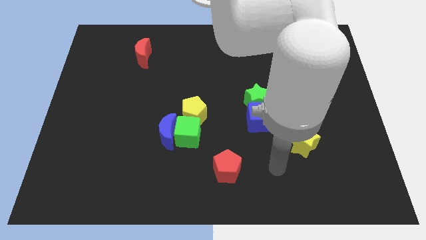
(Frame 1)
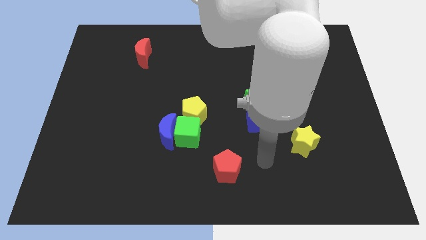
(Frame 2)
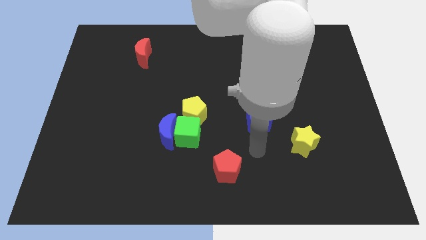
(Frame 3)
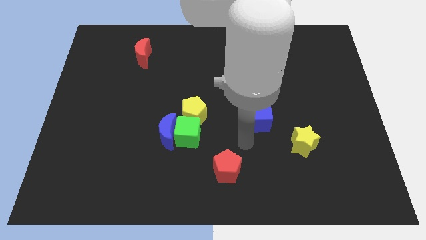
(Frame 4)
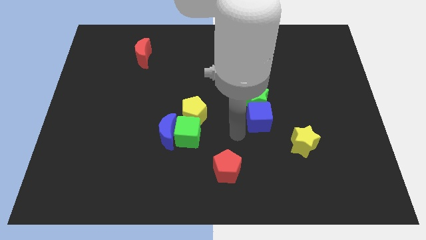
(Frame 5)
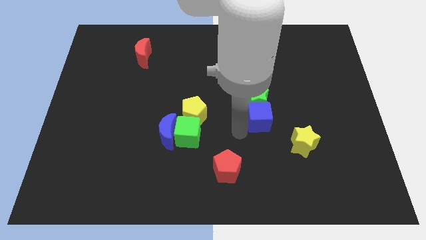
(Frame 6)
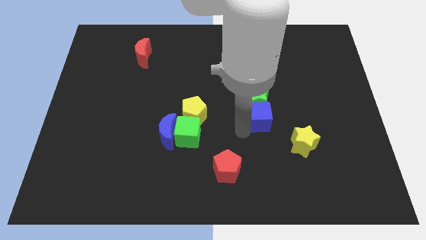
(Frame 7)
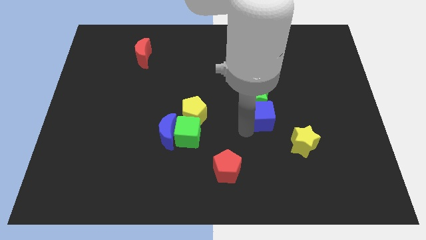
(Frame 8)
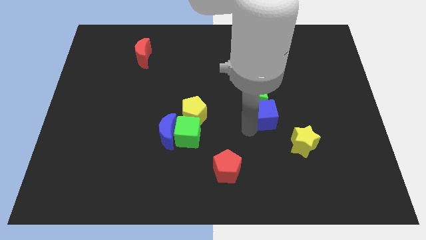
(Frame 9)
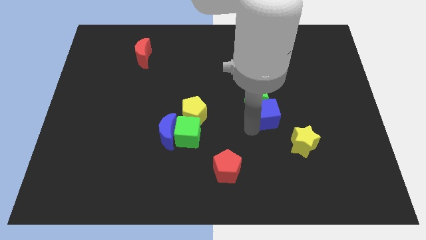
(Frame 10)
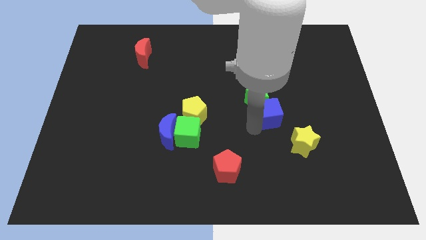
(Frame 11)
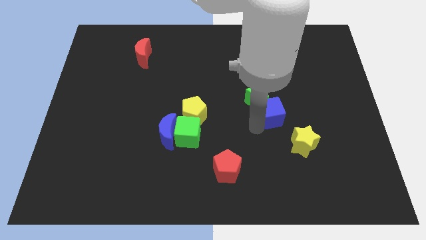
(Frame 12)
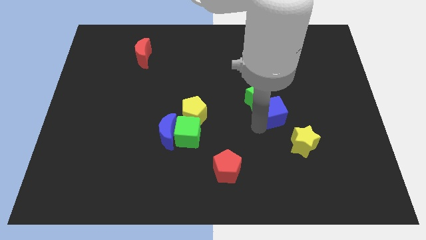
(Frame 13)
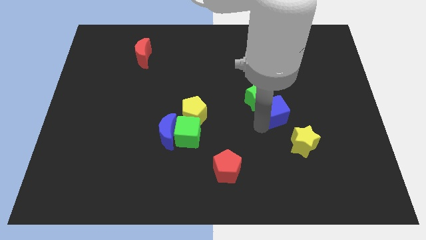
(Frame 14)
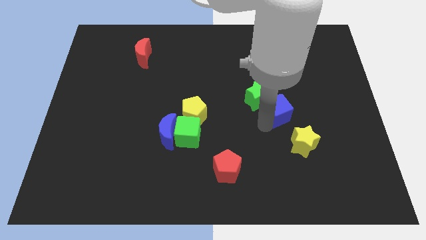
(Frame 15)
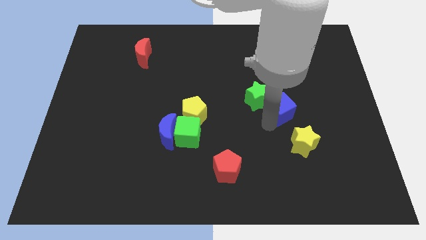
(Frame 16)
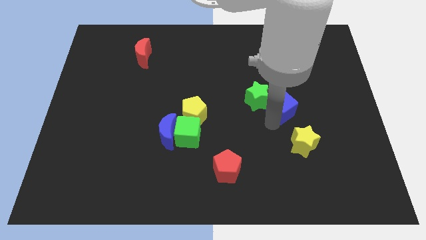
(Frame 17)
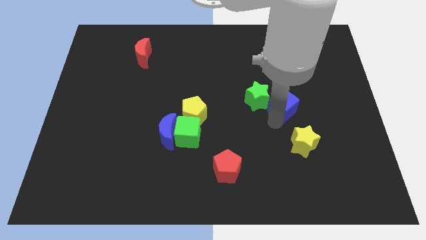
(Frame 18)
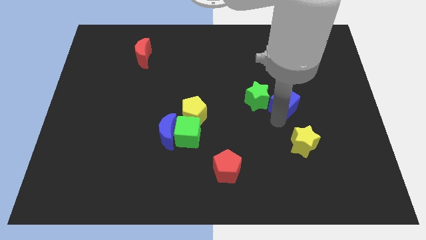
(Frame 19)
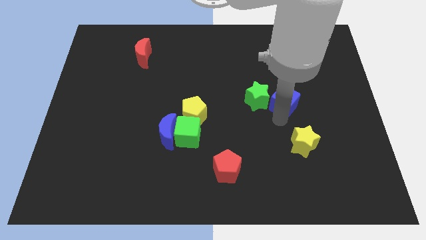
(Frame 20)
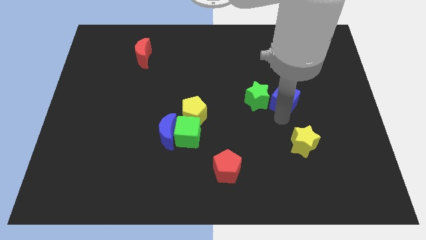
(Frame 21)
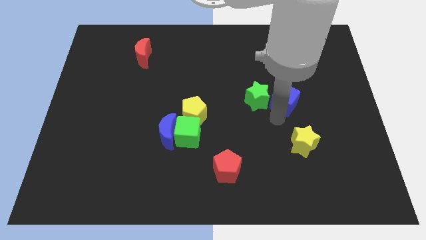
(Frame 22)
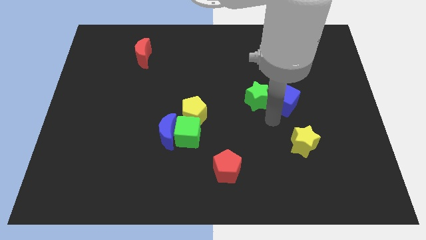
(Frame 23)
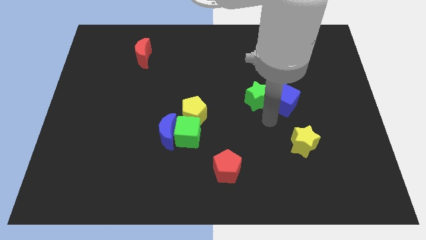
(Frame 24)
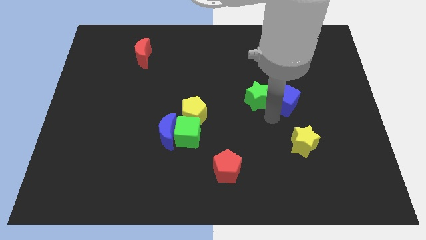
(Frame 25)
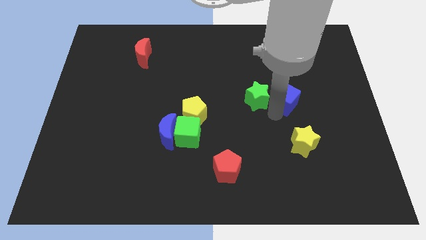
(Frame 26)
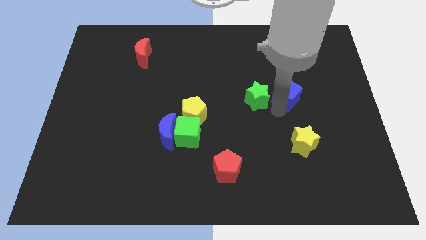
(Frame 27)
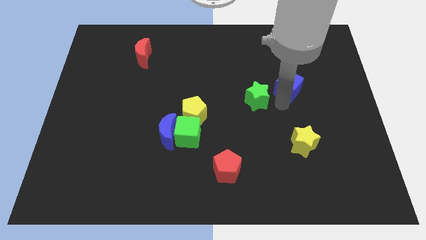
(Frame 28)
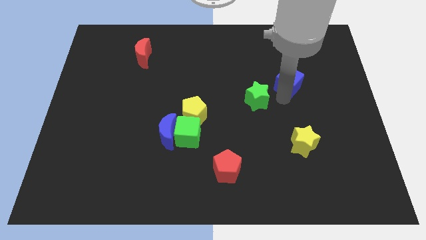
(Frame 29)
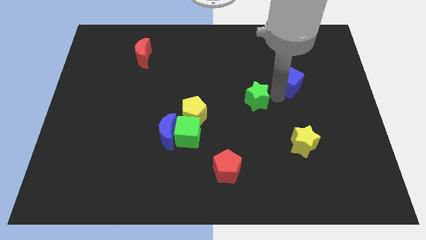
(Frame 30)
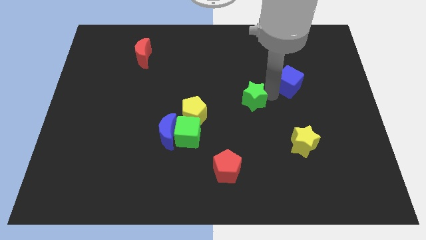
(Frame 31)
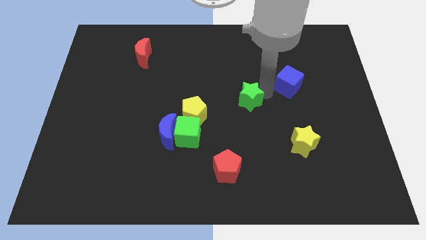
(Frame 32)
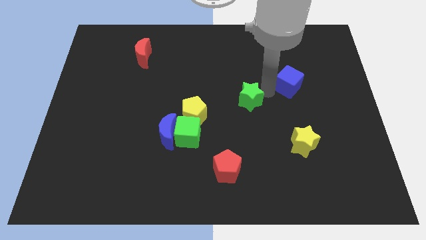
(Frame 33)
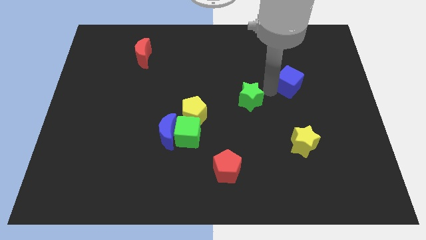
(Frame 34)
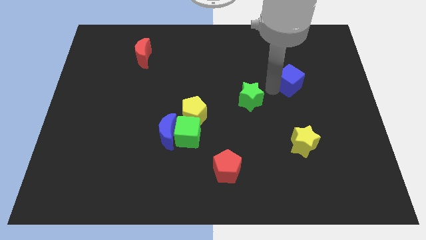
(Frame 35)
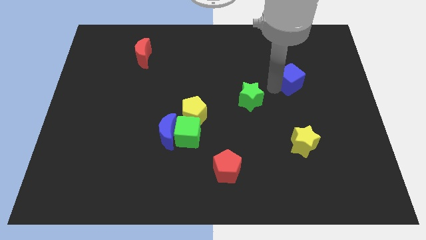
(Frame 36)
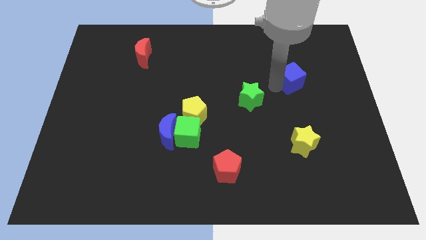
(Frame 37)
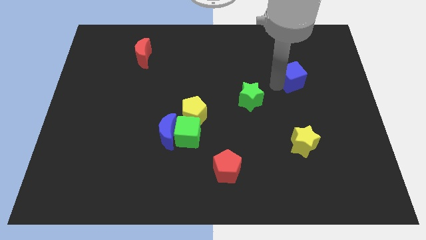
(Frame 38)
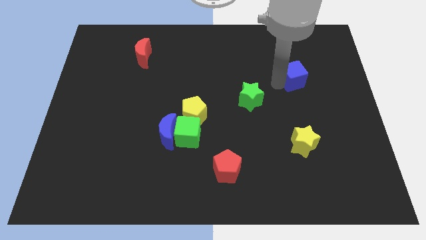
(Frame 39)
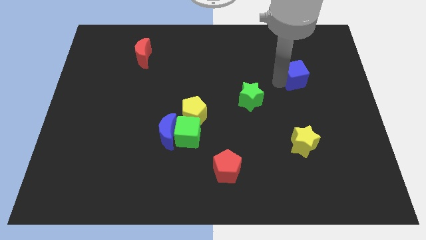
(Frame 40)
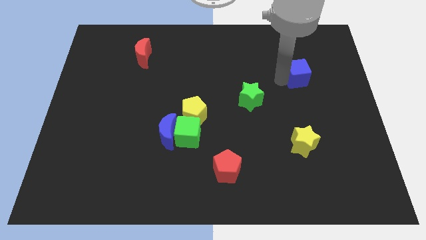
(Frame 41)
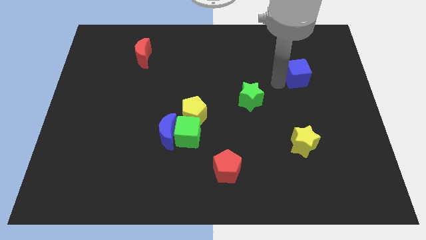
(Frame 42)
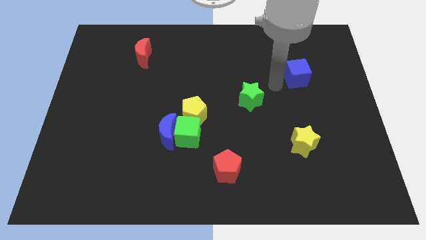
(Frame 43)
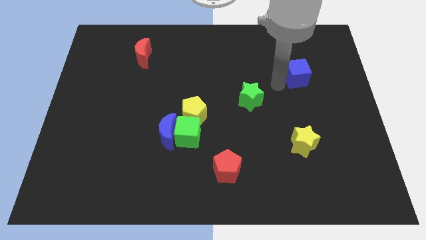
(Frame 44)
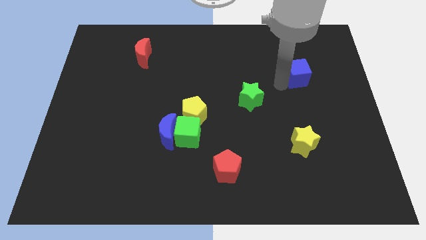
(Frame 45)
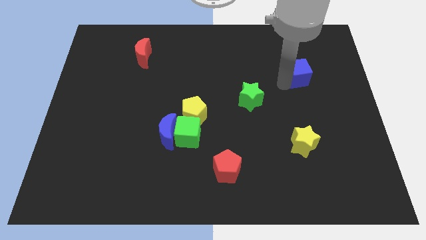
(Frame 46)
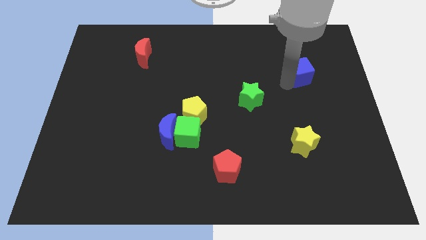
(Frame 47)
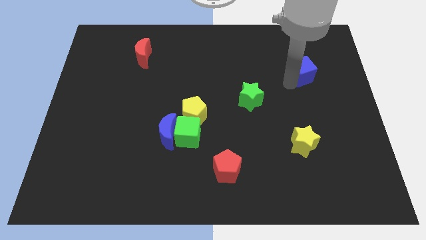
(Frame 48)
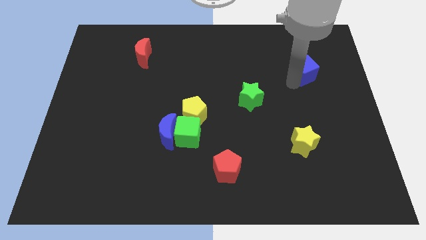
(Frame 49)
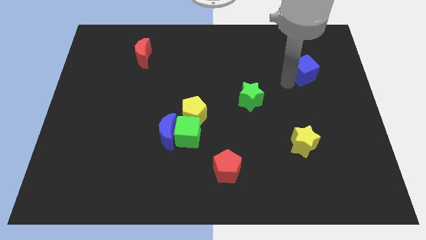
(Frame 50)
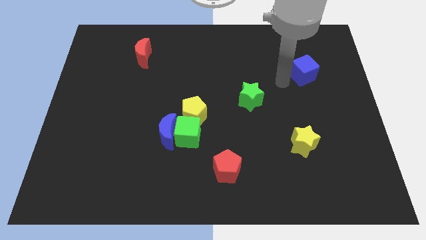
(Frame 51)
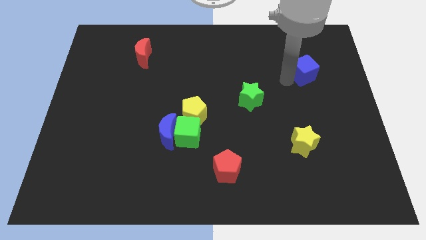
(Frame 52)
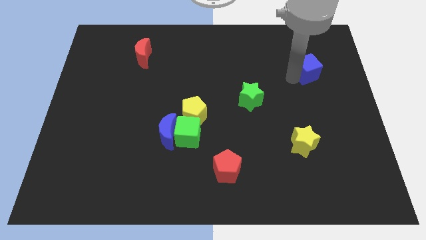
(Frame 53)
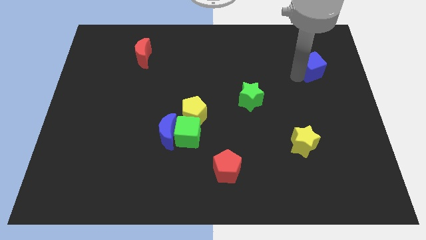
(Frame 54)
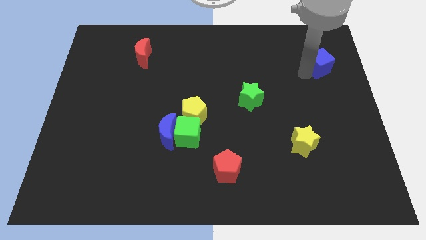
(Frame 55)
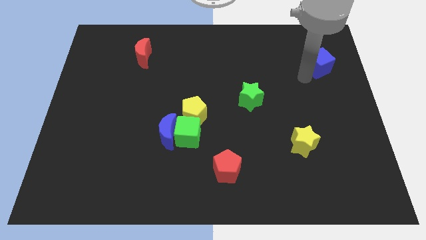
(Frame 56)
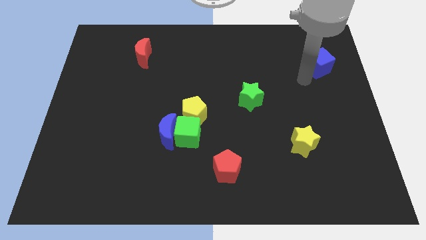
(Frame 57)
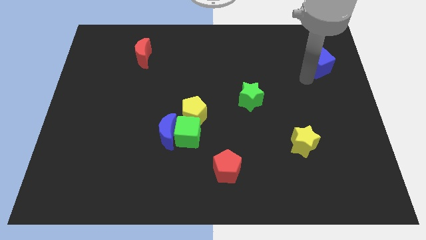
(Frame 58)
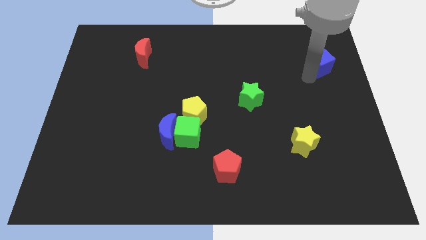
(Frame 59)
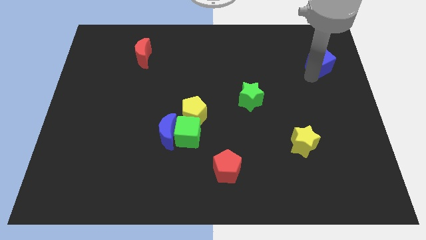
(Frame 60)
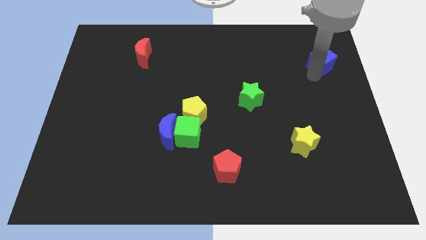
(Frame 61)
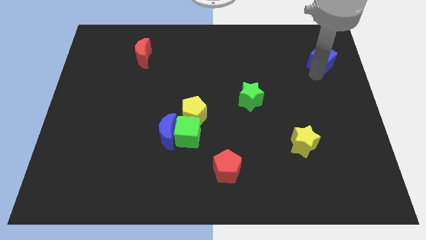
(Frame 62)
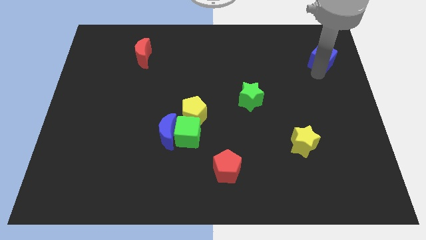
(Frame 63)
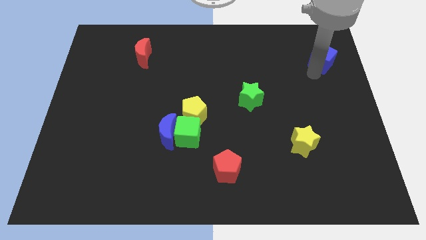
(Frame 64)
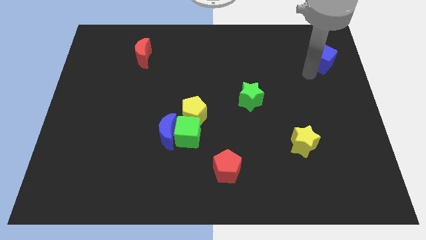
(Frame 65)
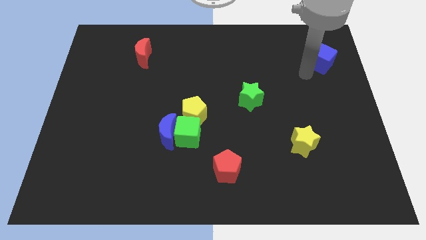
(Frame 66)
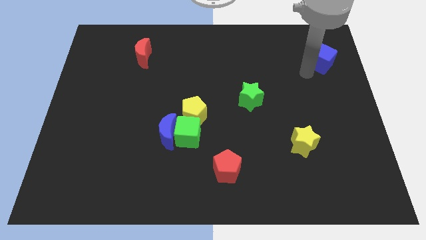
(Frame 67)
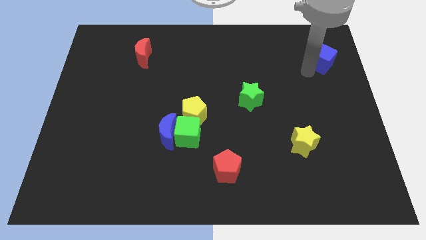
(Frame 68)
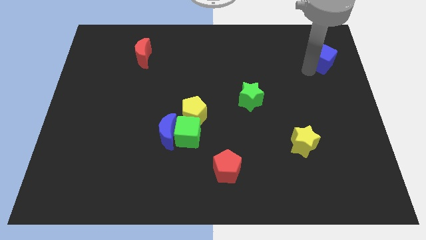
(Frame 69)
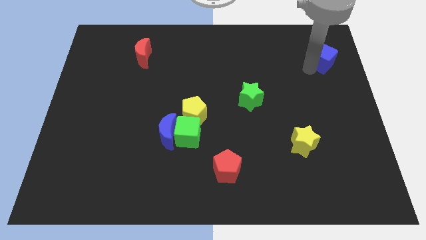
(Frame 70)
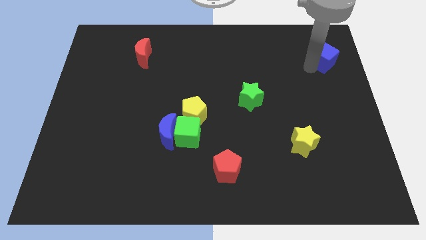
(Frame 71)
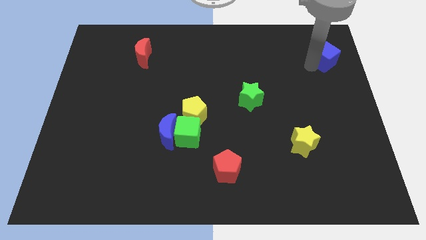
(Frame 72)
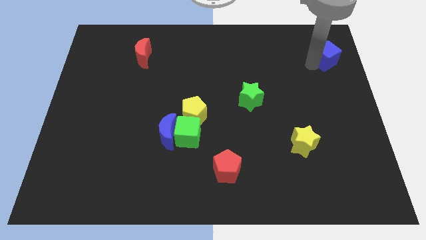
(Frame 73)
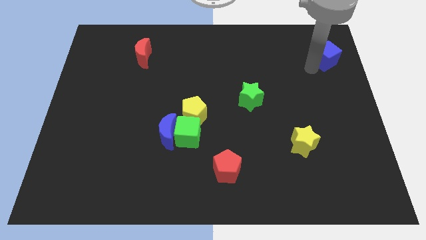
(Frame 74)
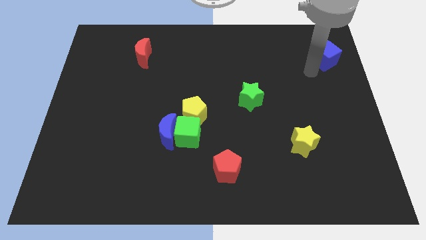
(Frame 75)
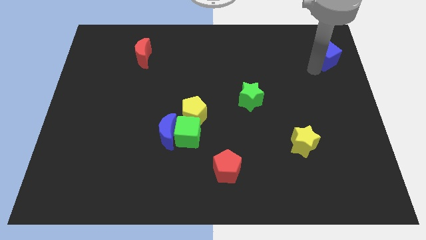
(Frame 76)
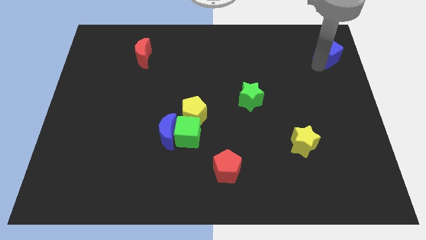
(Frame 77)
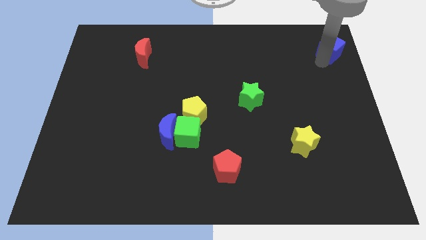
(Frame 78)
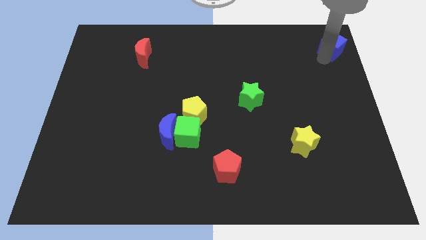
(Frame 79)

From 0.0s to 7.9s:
put the blue cube to the upper right corner
